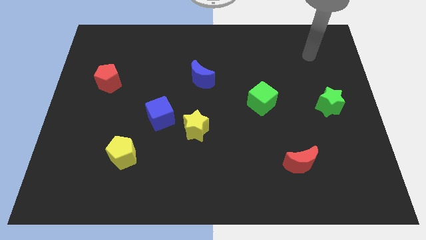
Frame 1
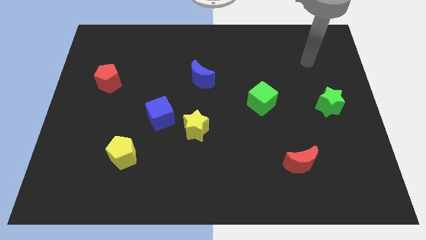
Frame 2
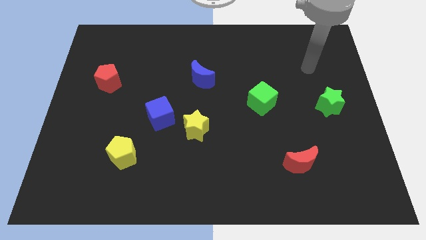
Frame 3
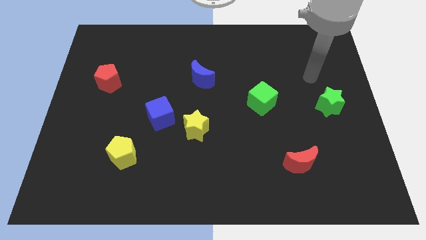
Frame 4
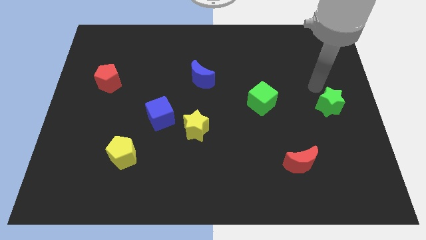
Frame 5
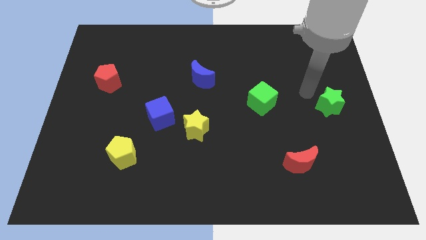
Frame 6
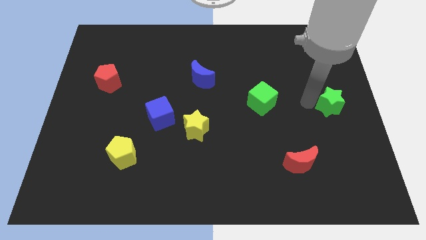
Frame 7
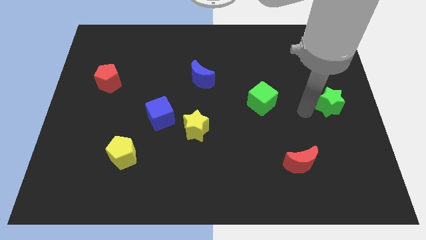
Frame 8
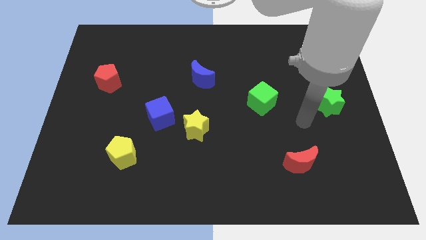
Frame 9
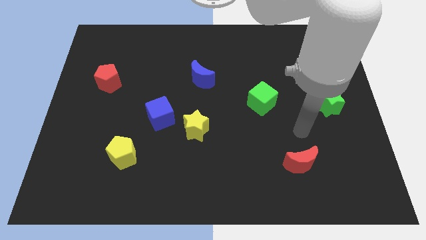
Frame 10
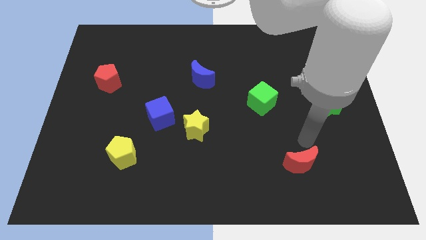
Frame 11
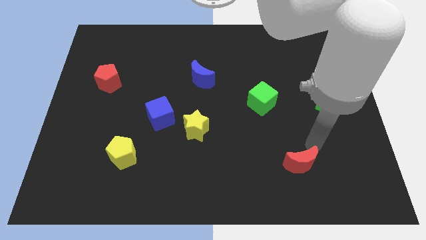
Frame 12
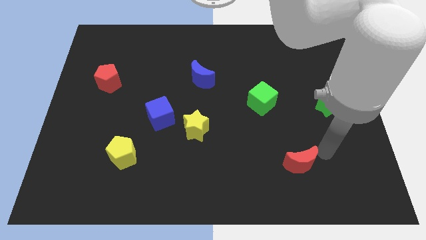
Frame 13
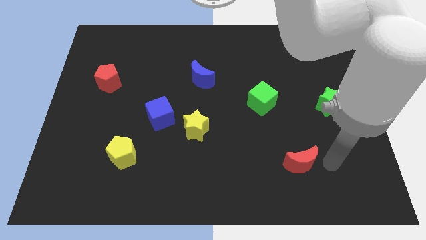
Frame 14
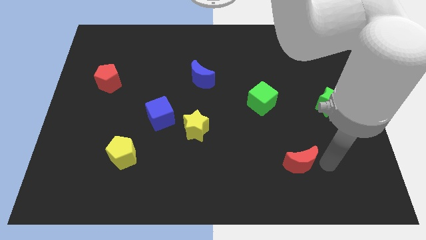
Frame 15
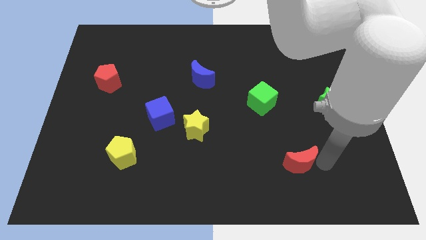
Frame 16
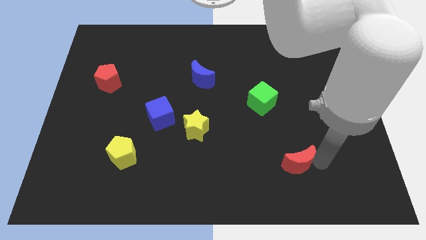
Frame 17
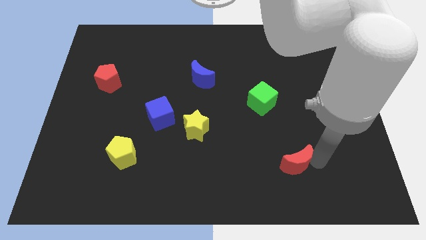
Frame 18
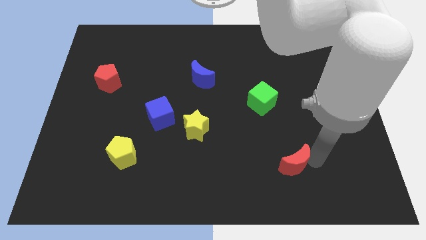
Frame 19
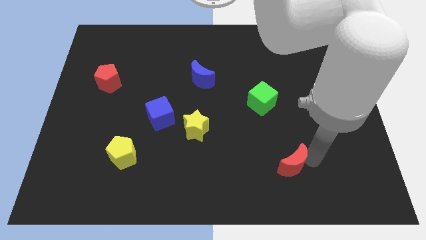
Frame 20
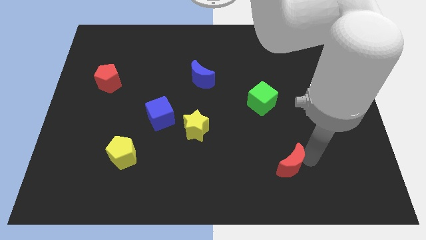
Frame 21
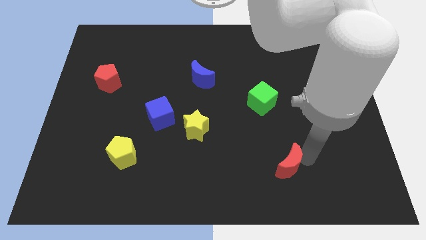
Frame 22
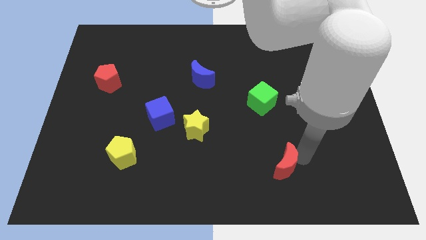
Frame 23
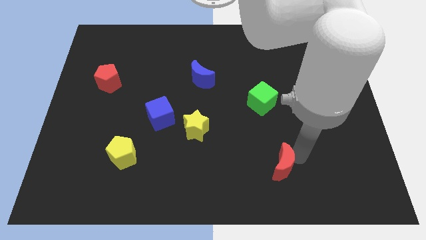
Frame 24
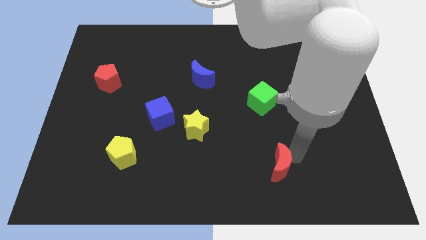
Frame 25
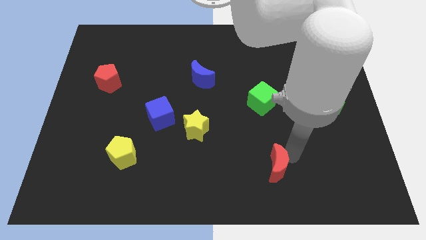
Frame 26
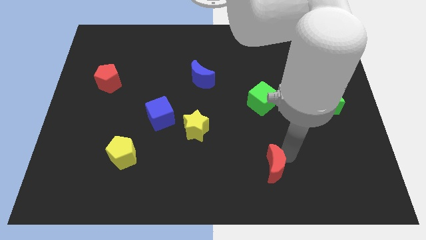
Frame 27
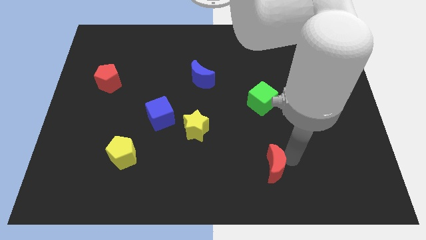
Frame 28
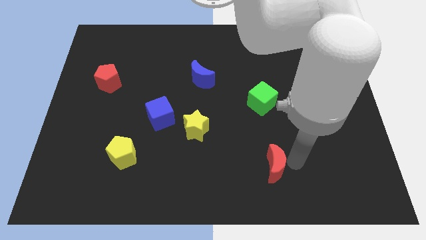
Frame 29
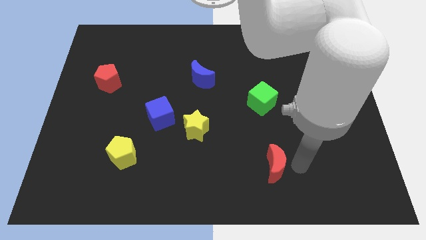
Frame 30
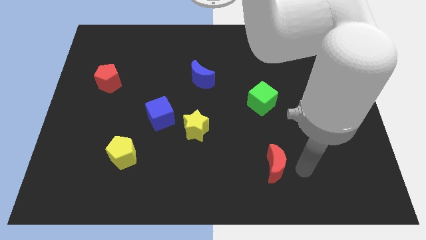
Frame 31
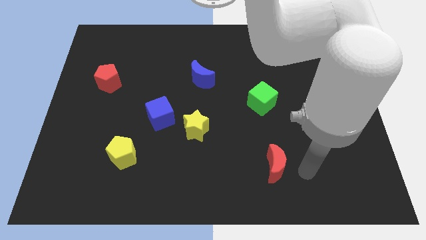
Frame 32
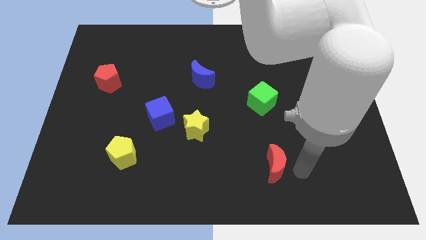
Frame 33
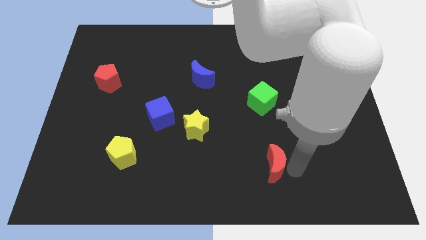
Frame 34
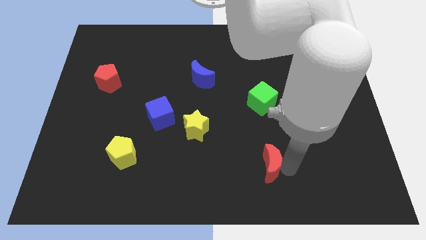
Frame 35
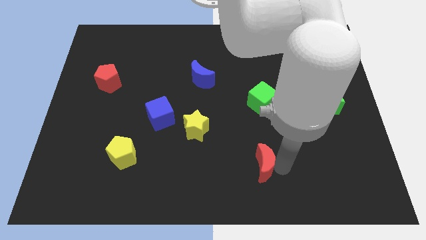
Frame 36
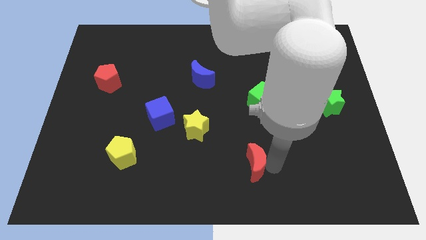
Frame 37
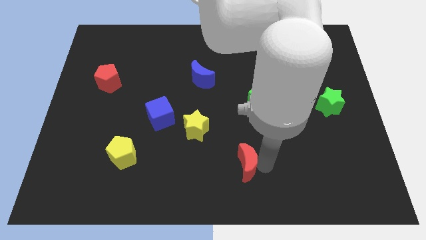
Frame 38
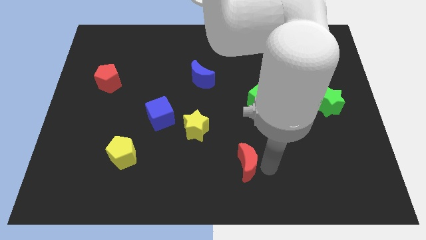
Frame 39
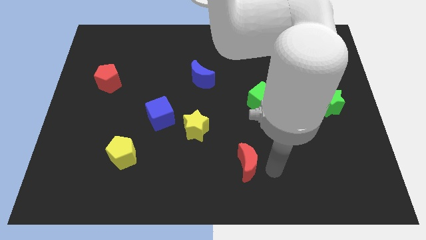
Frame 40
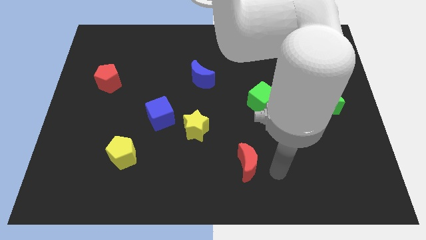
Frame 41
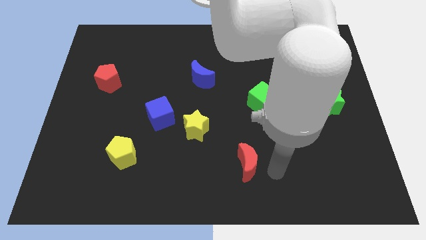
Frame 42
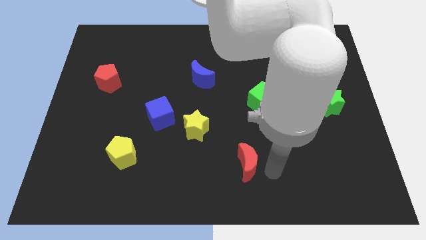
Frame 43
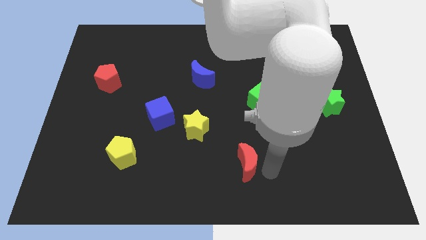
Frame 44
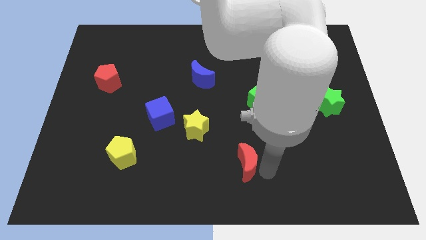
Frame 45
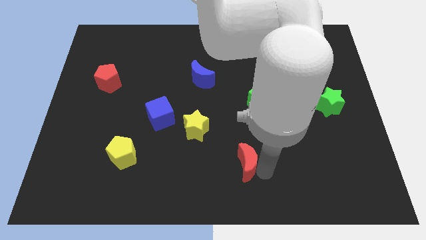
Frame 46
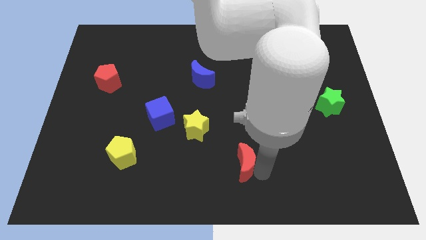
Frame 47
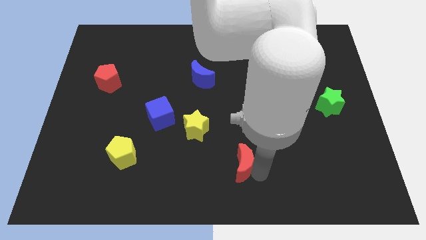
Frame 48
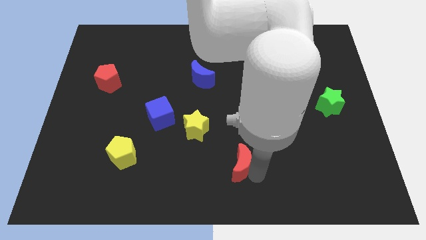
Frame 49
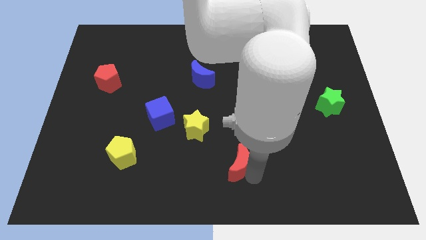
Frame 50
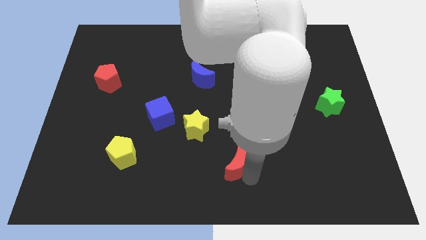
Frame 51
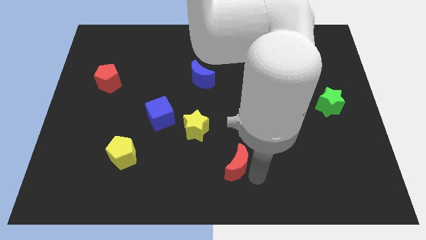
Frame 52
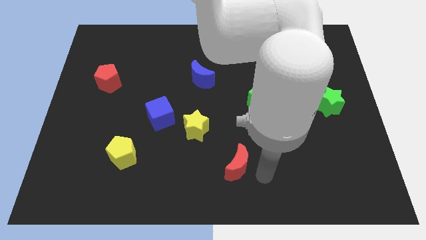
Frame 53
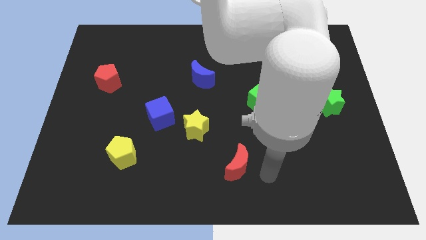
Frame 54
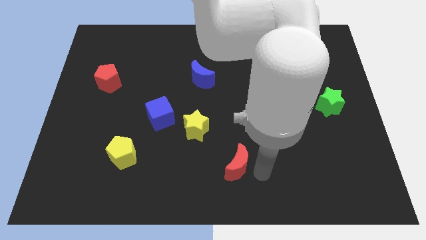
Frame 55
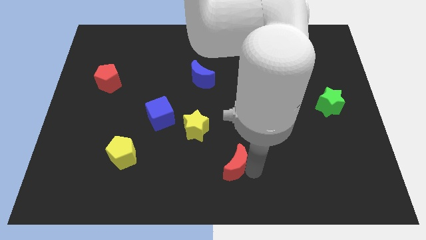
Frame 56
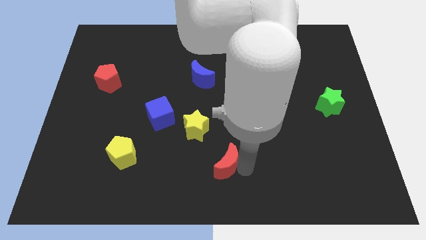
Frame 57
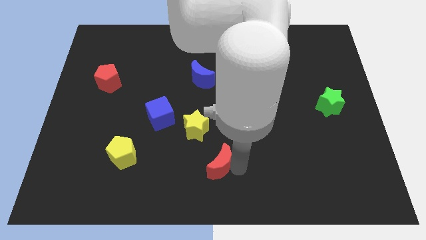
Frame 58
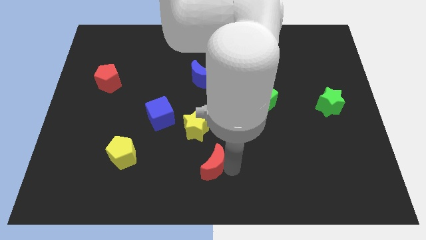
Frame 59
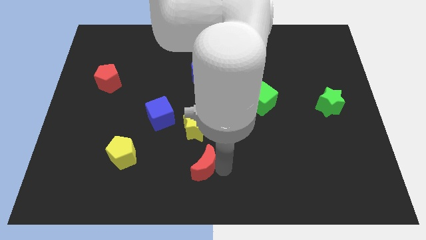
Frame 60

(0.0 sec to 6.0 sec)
move the red moon left

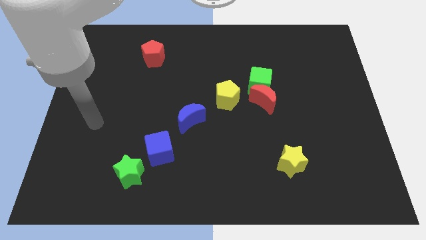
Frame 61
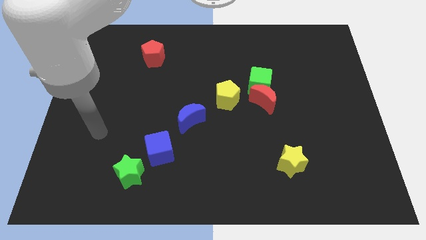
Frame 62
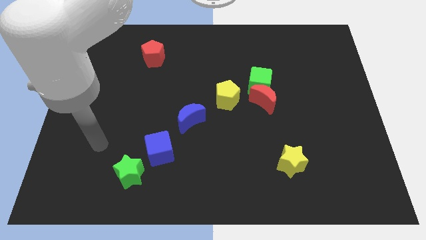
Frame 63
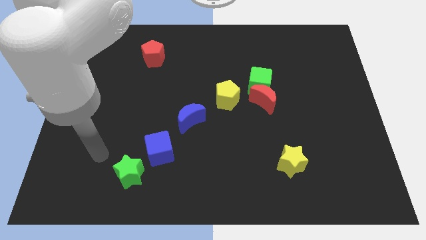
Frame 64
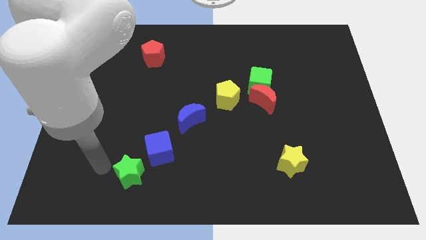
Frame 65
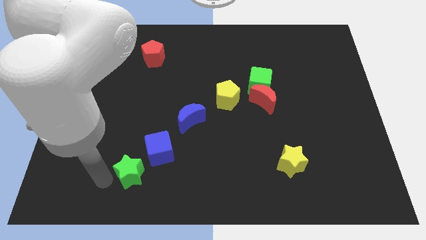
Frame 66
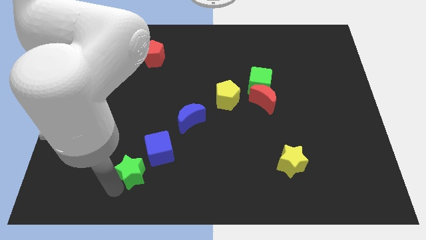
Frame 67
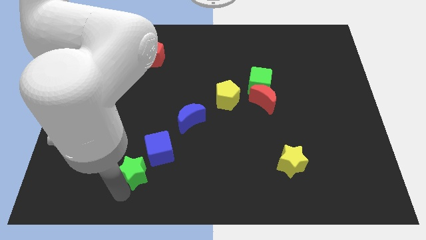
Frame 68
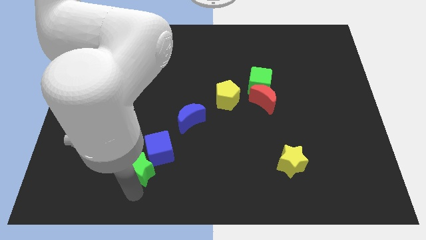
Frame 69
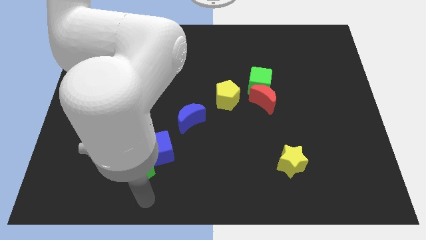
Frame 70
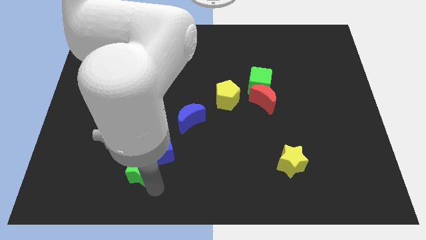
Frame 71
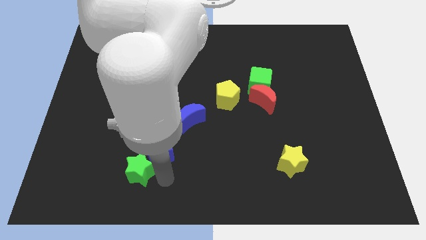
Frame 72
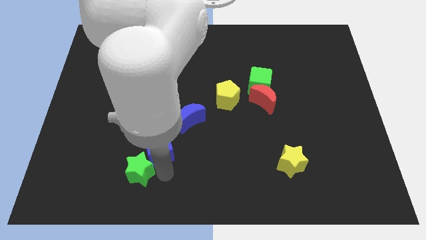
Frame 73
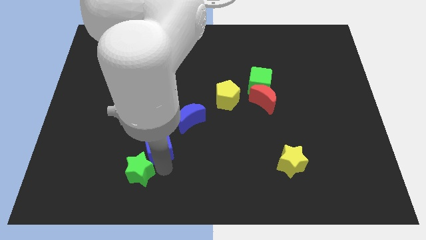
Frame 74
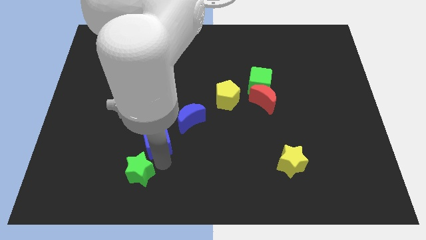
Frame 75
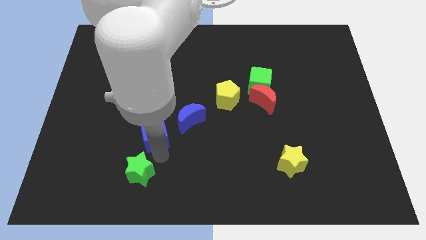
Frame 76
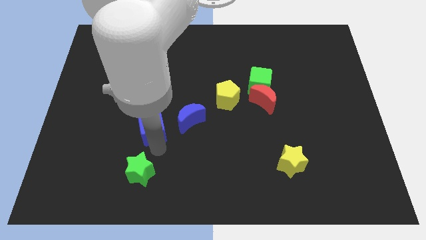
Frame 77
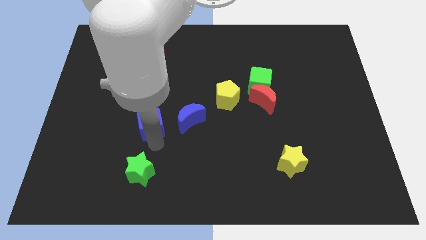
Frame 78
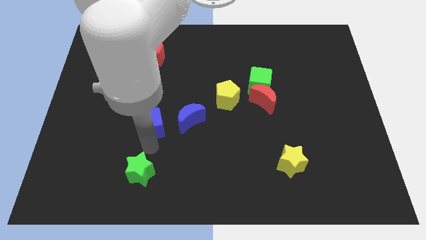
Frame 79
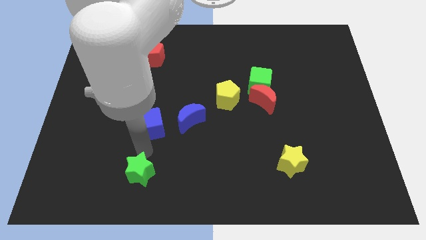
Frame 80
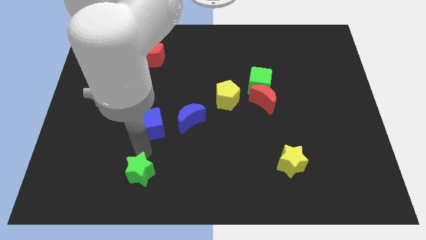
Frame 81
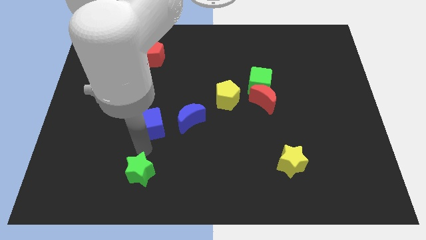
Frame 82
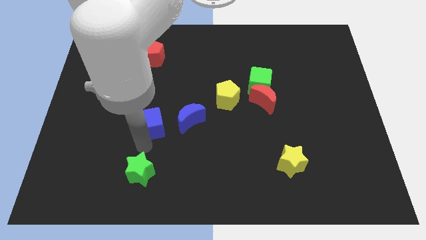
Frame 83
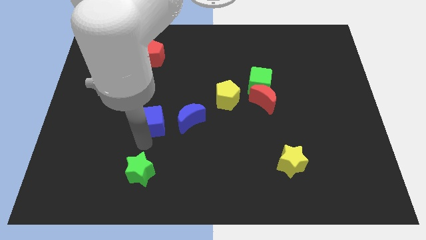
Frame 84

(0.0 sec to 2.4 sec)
slightly slide the blue cube up
